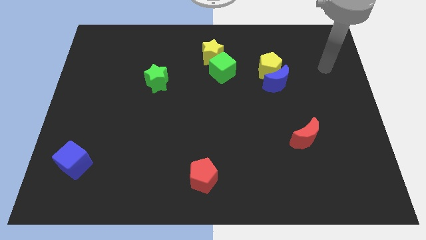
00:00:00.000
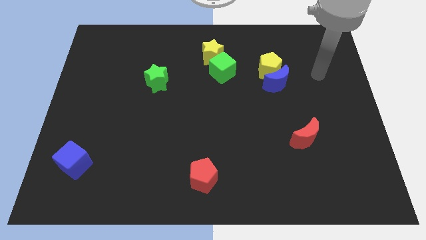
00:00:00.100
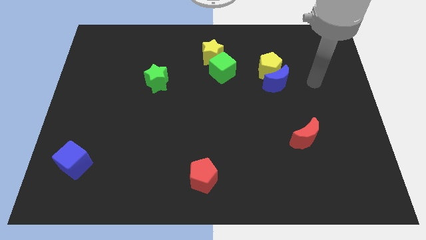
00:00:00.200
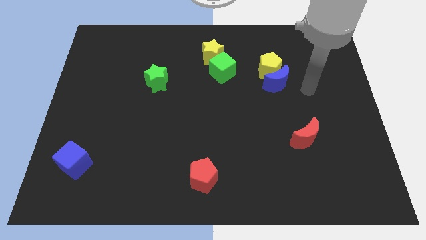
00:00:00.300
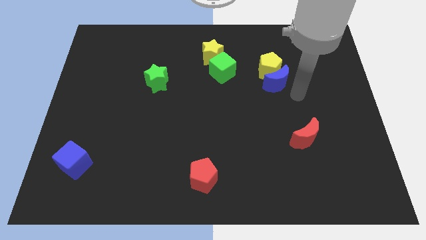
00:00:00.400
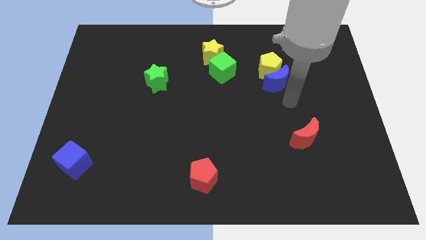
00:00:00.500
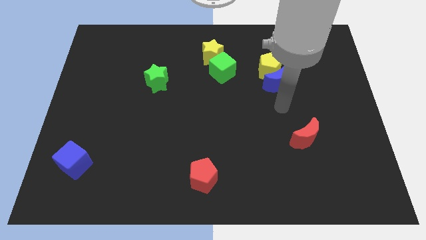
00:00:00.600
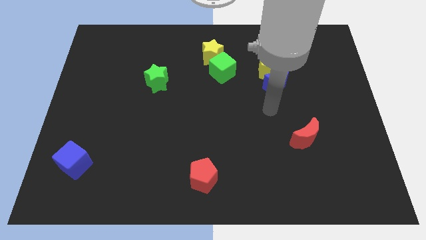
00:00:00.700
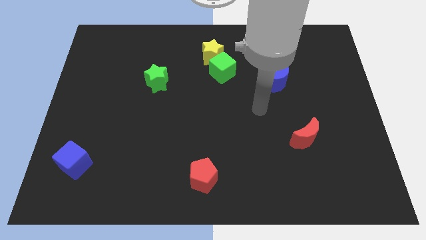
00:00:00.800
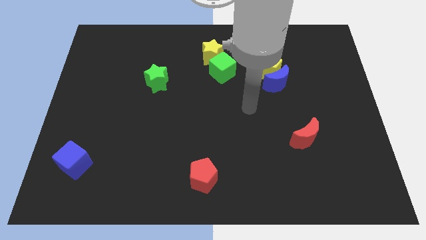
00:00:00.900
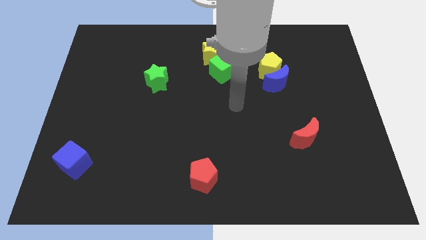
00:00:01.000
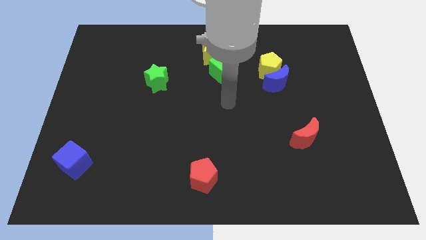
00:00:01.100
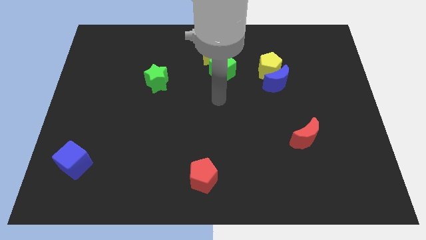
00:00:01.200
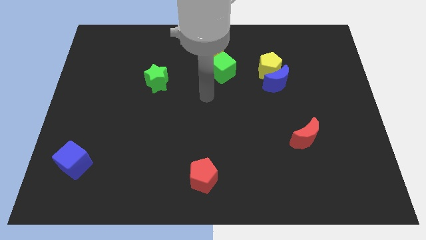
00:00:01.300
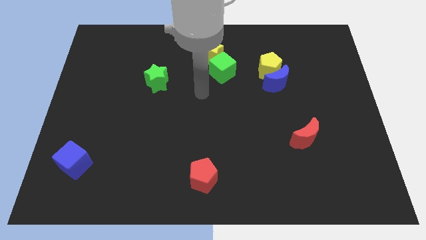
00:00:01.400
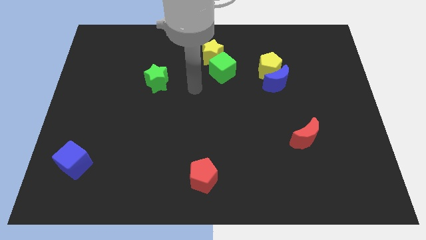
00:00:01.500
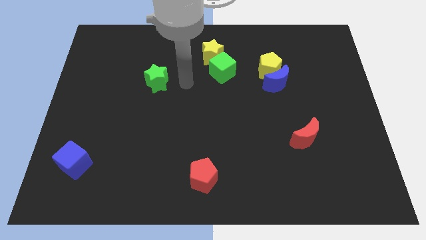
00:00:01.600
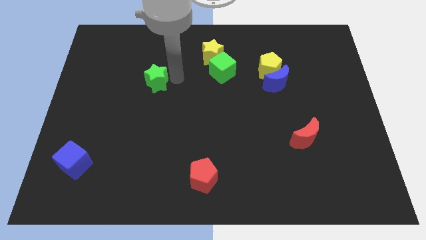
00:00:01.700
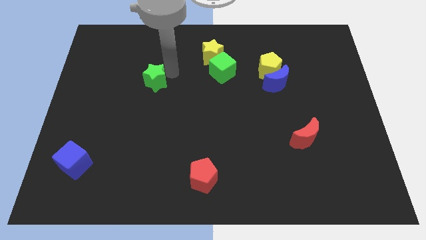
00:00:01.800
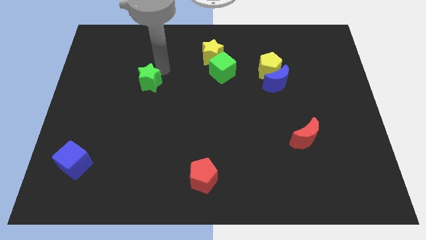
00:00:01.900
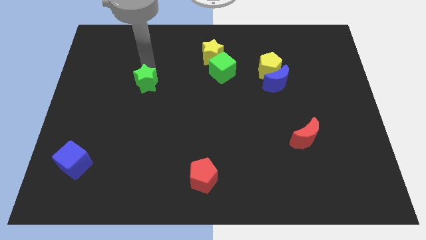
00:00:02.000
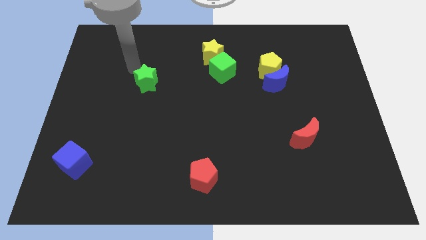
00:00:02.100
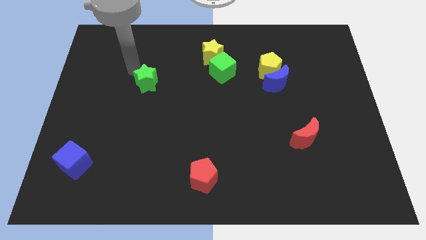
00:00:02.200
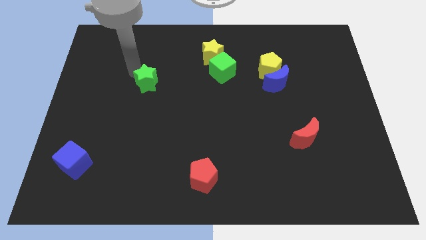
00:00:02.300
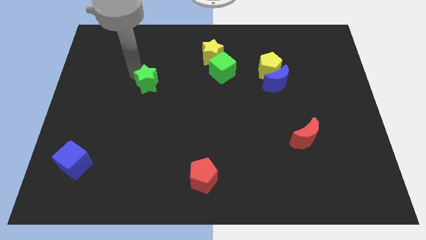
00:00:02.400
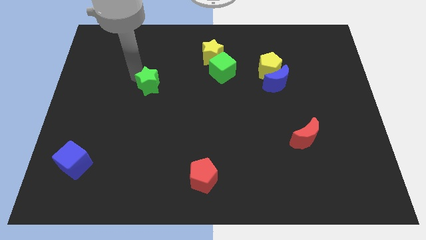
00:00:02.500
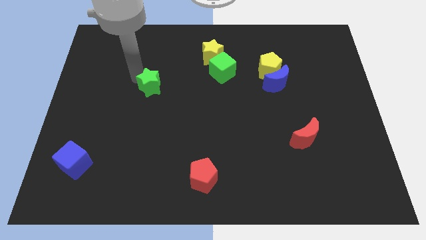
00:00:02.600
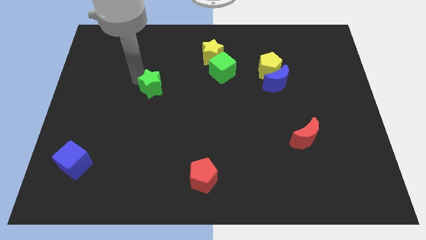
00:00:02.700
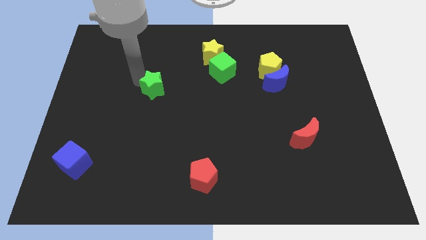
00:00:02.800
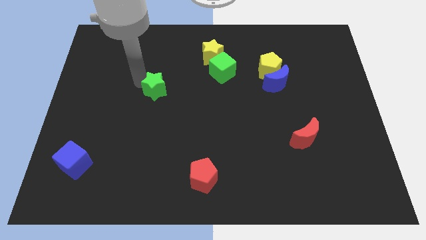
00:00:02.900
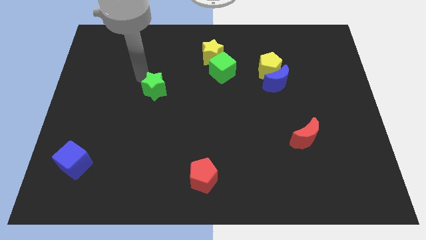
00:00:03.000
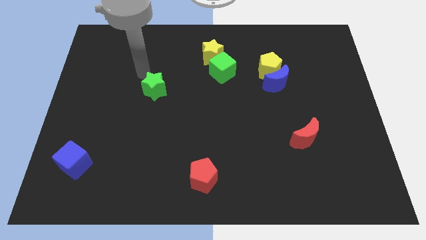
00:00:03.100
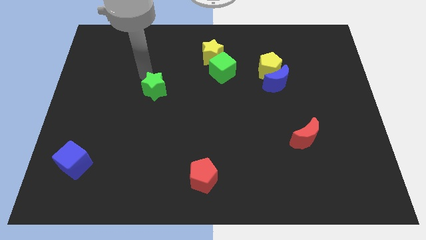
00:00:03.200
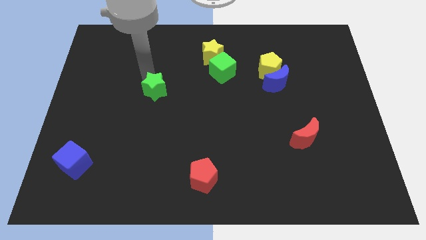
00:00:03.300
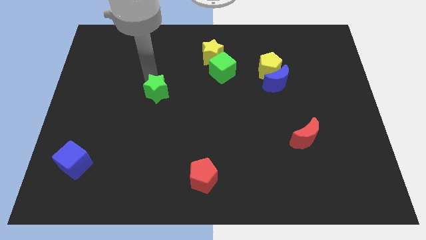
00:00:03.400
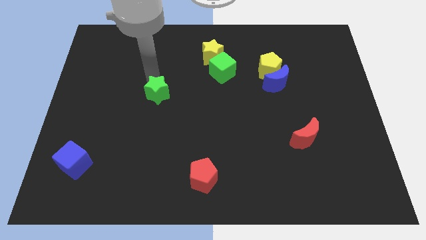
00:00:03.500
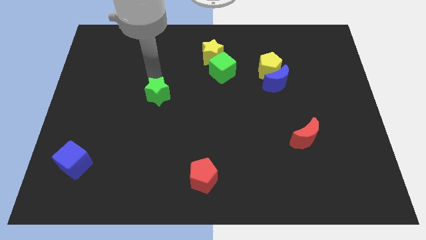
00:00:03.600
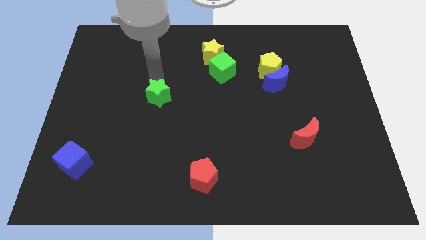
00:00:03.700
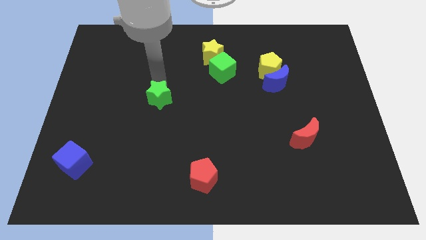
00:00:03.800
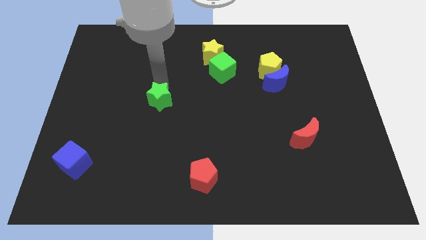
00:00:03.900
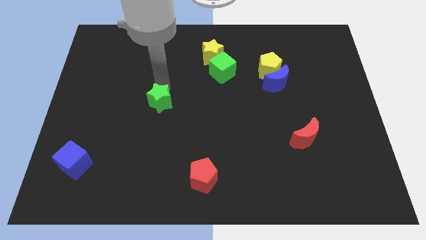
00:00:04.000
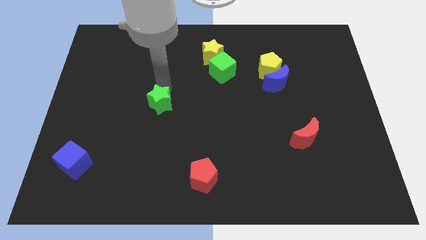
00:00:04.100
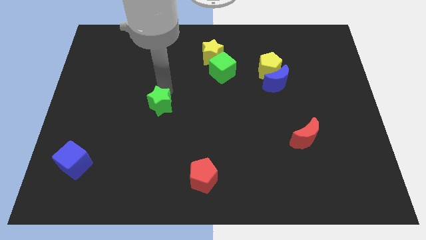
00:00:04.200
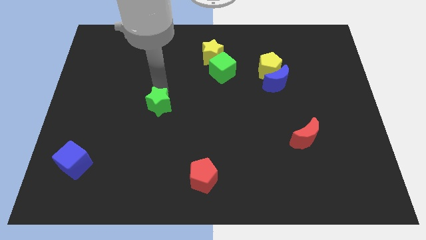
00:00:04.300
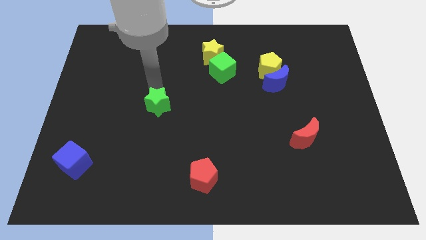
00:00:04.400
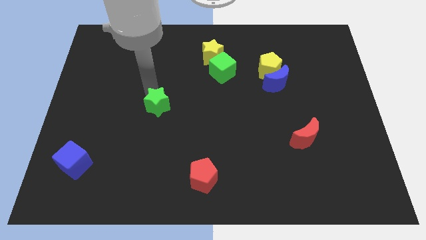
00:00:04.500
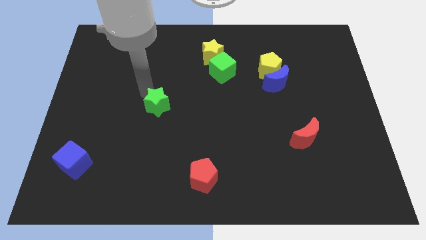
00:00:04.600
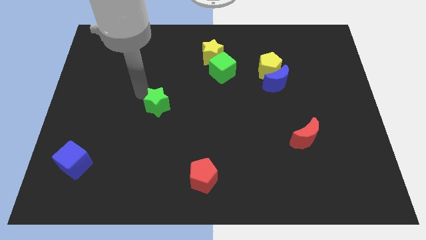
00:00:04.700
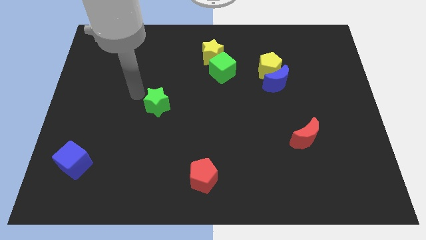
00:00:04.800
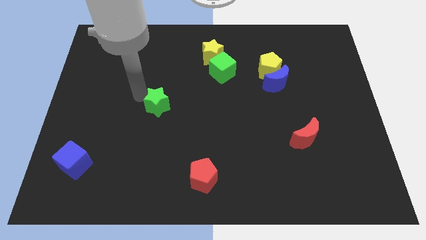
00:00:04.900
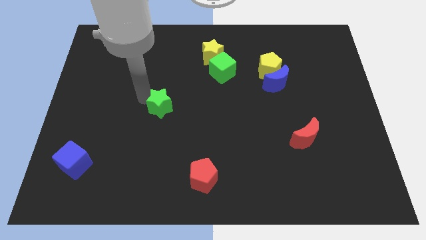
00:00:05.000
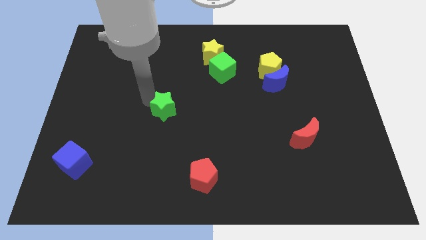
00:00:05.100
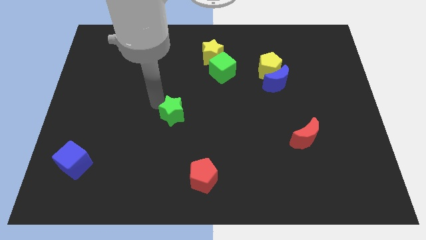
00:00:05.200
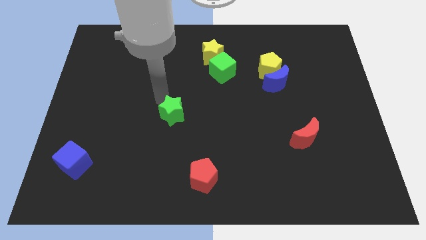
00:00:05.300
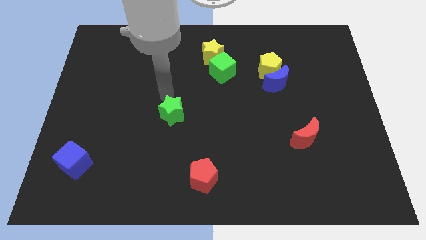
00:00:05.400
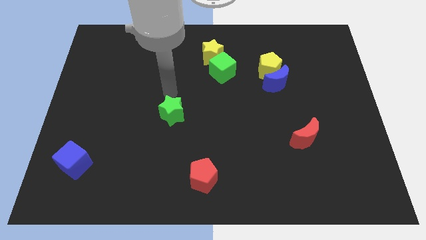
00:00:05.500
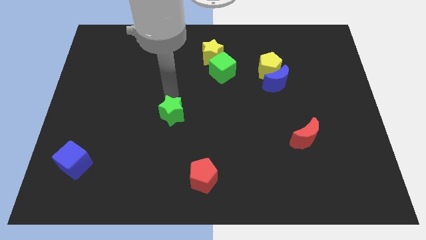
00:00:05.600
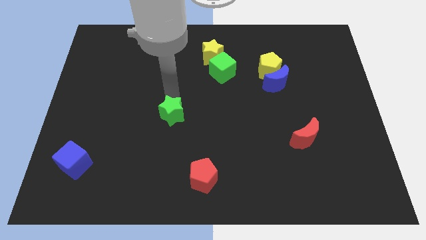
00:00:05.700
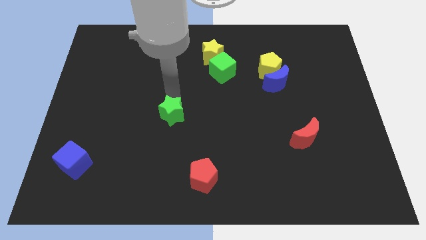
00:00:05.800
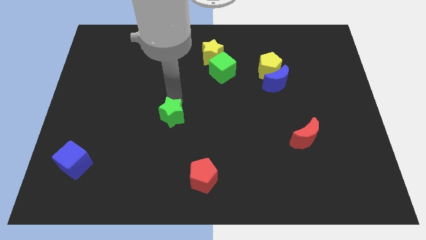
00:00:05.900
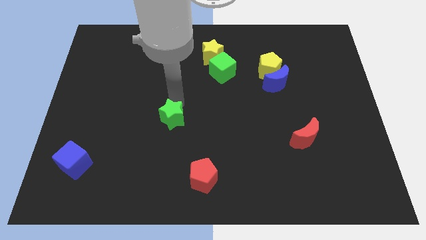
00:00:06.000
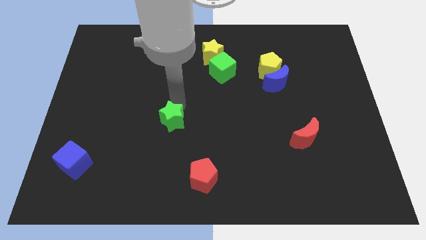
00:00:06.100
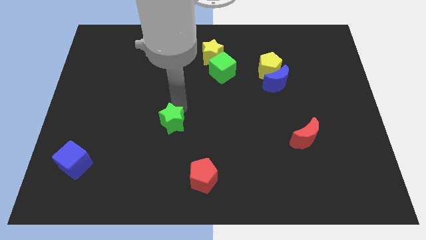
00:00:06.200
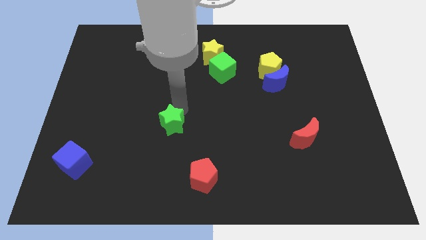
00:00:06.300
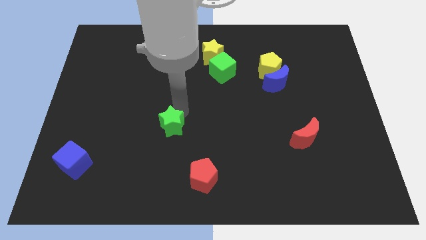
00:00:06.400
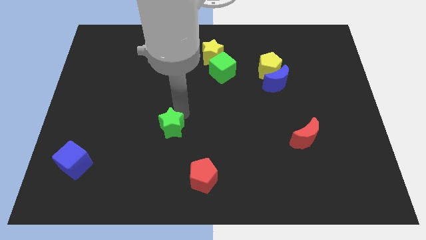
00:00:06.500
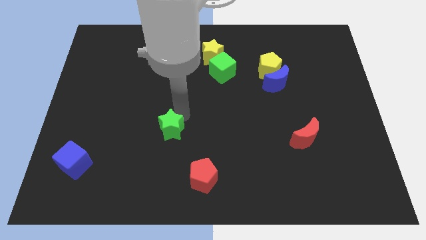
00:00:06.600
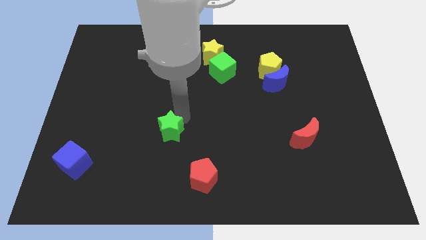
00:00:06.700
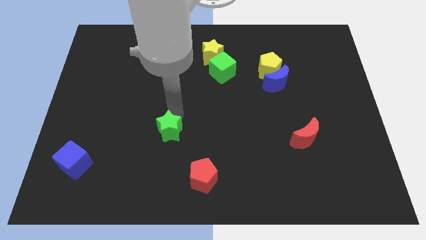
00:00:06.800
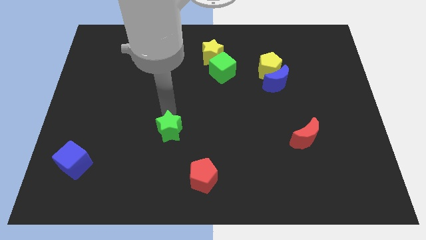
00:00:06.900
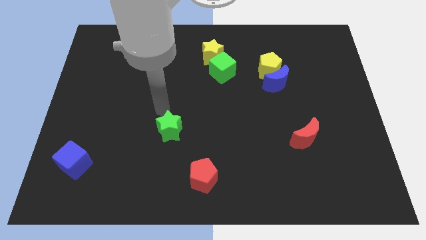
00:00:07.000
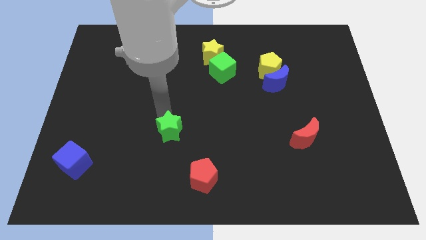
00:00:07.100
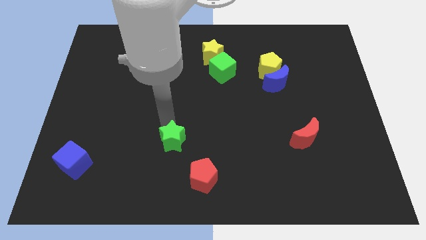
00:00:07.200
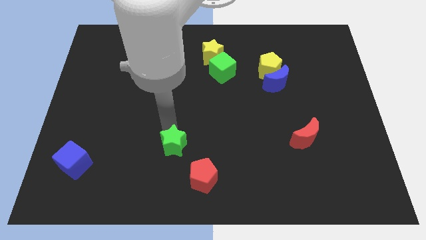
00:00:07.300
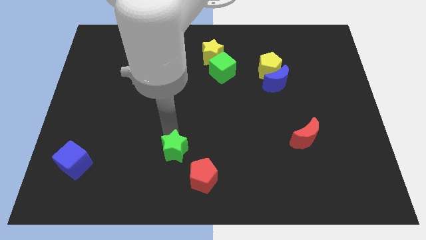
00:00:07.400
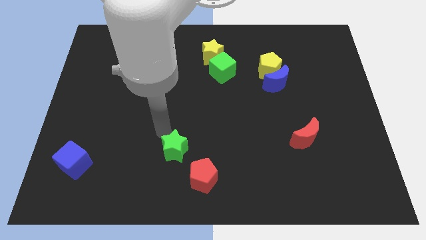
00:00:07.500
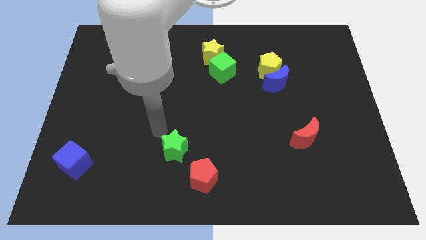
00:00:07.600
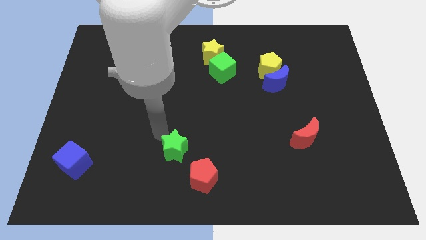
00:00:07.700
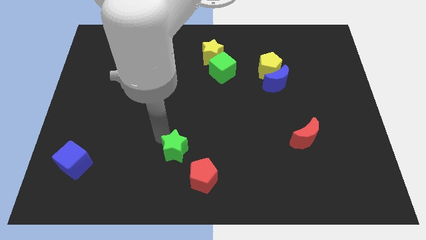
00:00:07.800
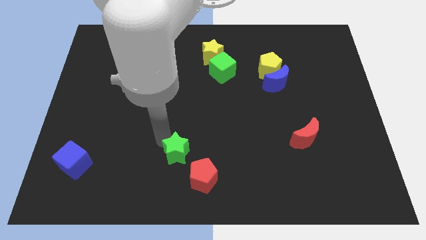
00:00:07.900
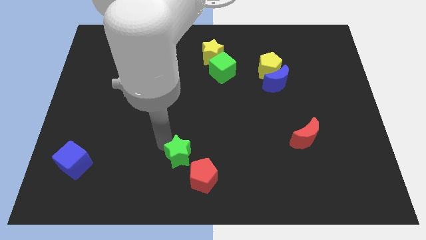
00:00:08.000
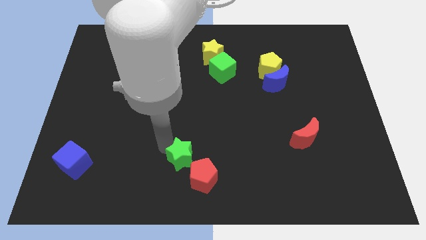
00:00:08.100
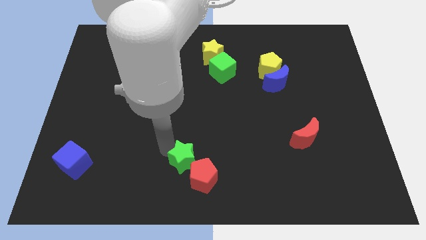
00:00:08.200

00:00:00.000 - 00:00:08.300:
slide the green star towards the red pentagon
